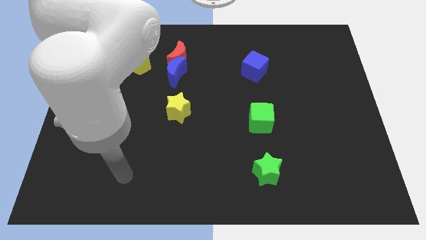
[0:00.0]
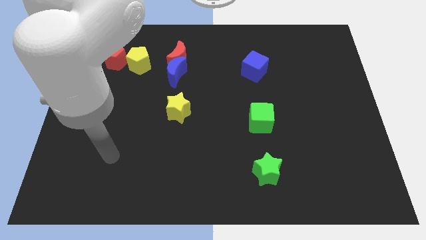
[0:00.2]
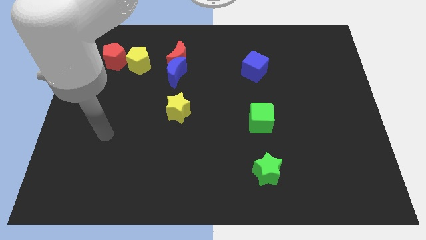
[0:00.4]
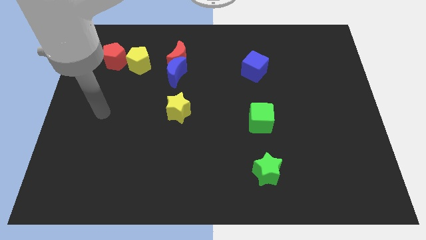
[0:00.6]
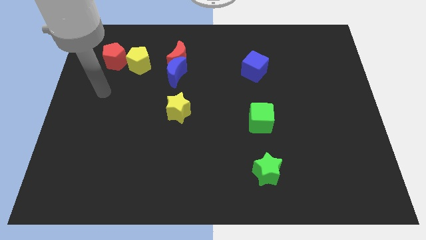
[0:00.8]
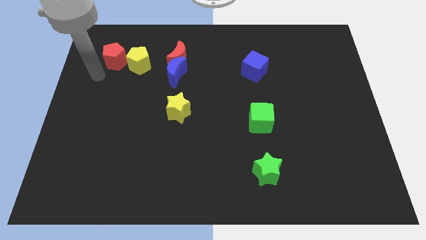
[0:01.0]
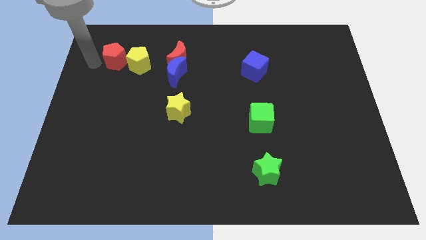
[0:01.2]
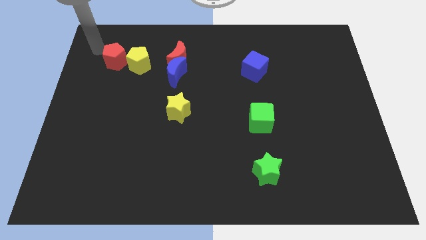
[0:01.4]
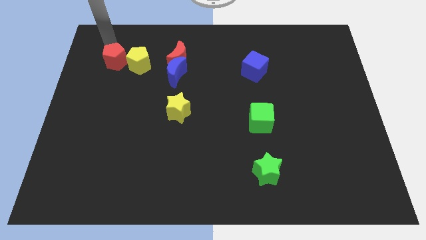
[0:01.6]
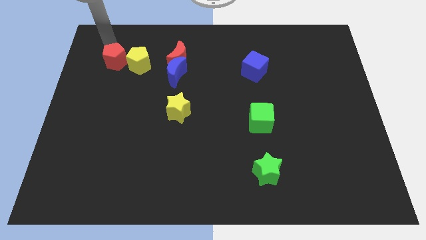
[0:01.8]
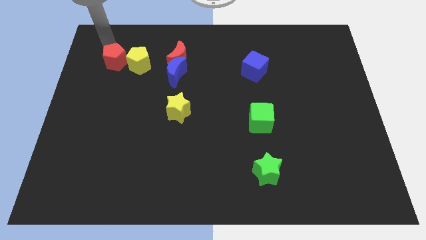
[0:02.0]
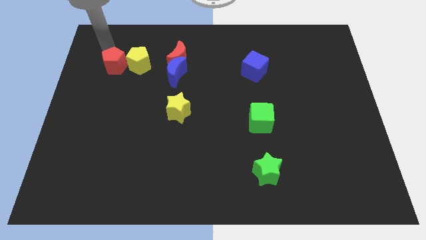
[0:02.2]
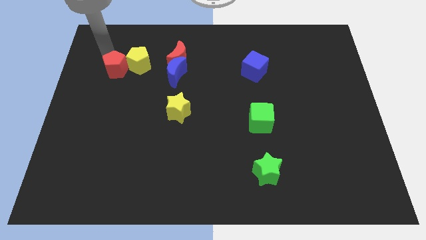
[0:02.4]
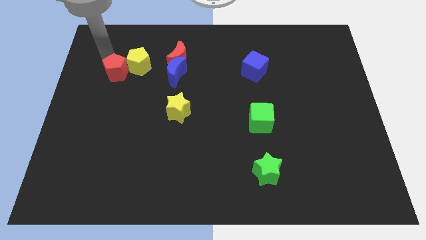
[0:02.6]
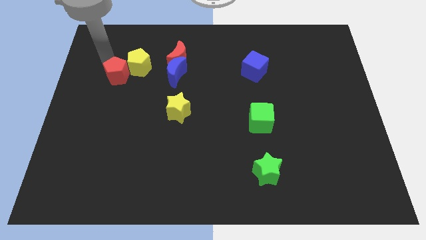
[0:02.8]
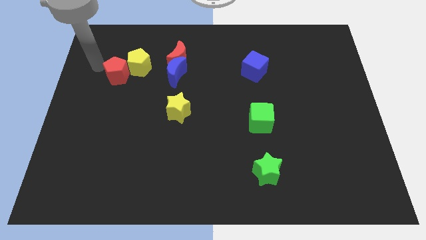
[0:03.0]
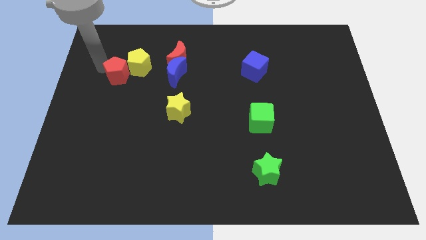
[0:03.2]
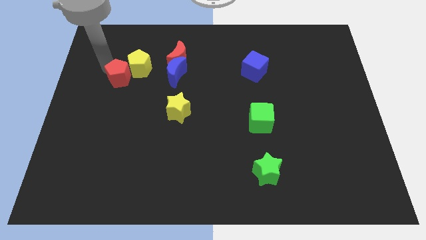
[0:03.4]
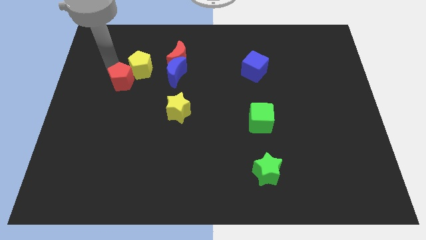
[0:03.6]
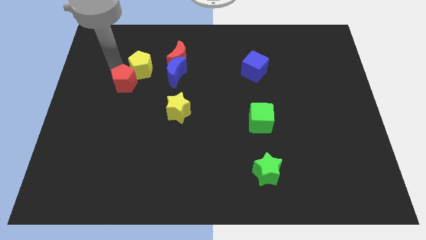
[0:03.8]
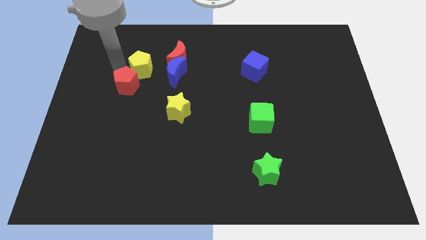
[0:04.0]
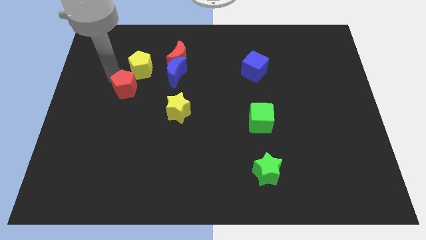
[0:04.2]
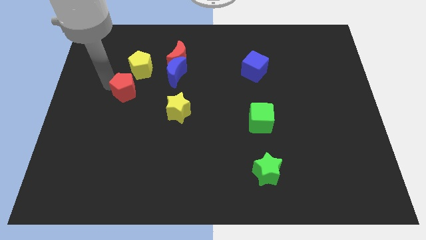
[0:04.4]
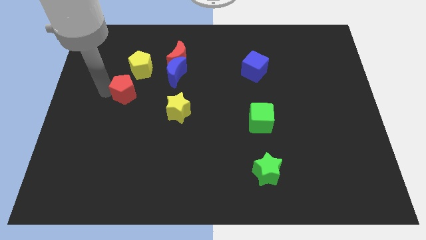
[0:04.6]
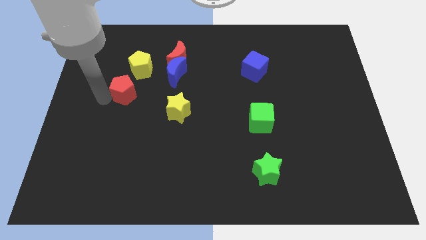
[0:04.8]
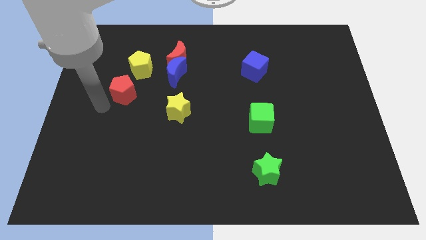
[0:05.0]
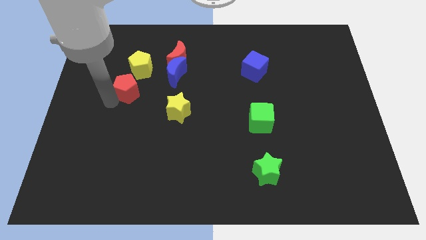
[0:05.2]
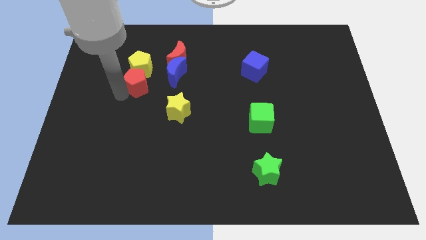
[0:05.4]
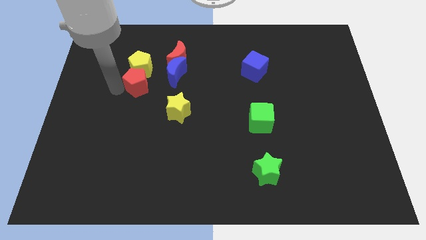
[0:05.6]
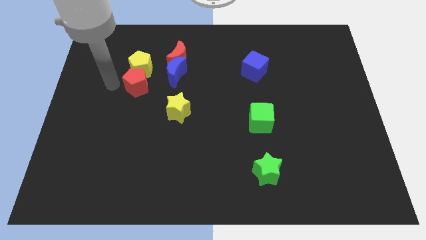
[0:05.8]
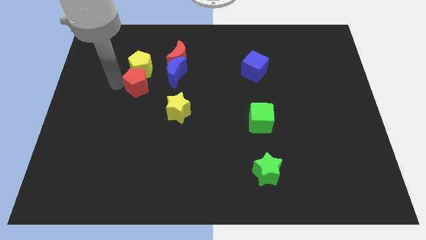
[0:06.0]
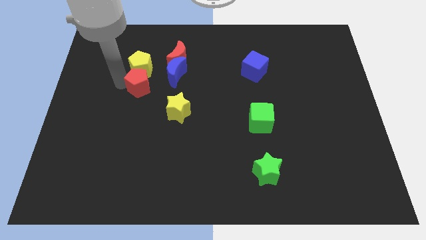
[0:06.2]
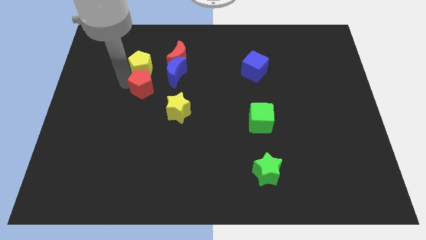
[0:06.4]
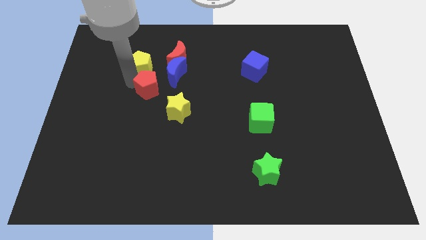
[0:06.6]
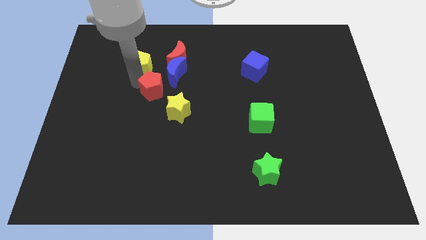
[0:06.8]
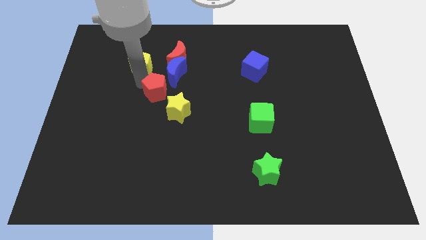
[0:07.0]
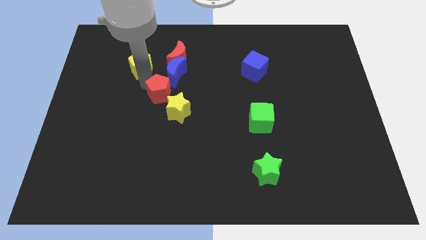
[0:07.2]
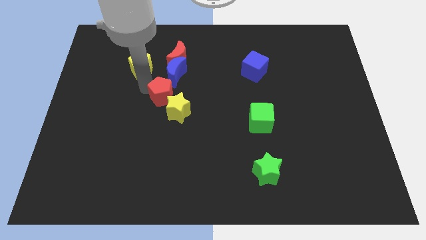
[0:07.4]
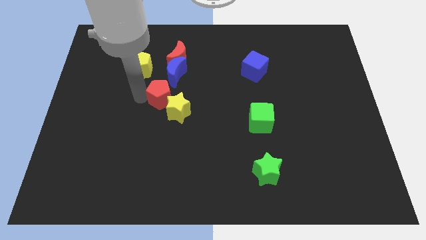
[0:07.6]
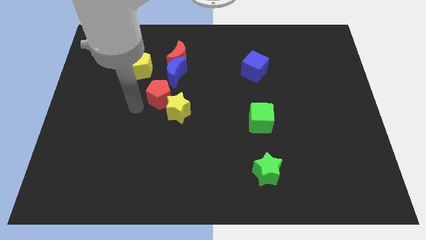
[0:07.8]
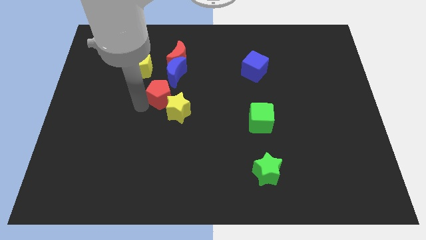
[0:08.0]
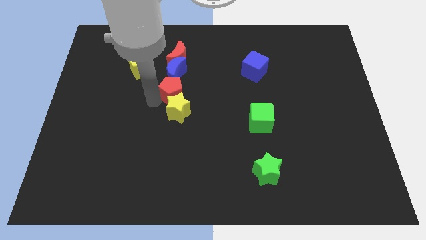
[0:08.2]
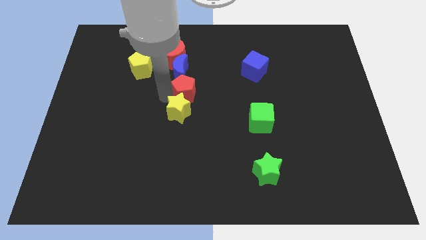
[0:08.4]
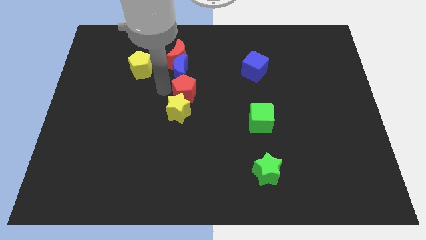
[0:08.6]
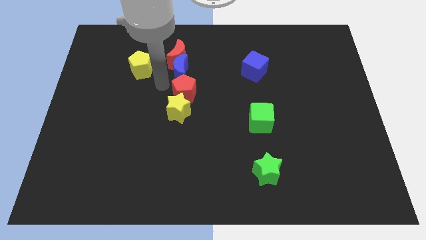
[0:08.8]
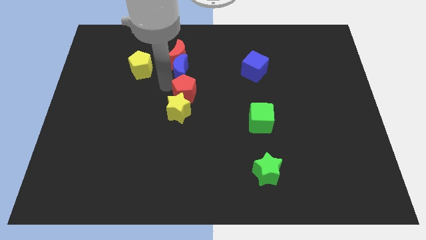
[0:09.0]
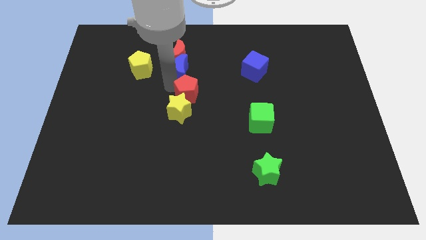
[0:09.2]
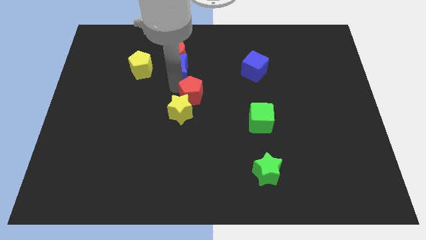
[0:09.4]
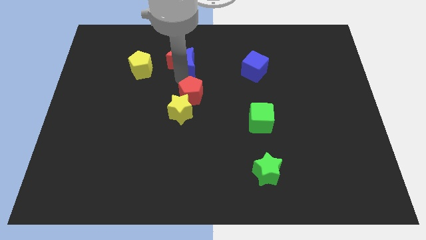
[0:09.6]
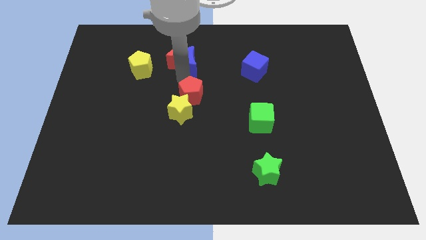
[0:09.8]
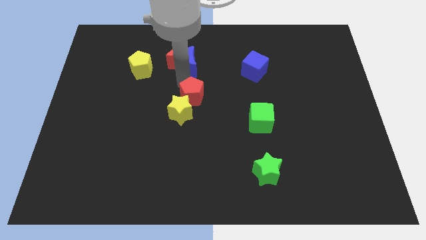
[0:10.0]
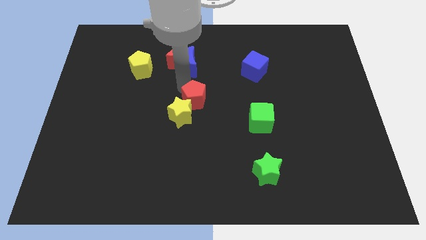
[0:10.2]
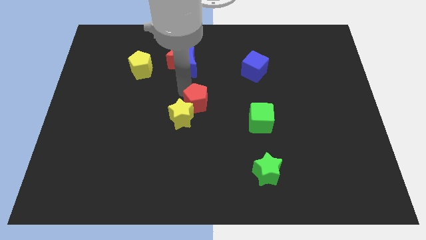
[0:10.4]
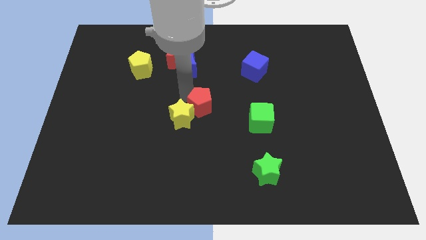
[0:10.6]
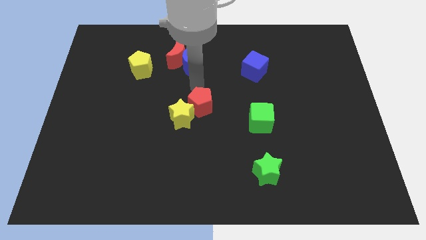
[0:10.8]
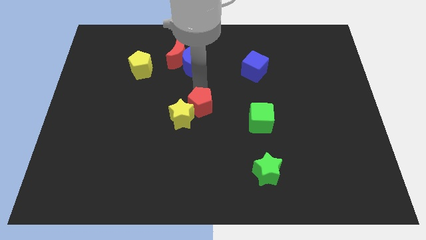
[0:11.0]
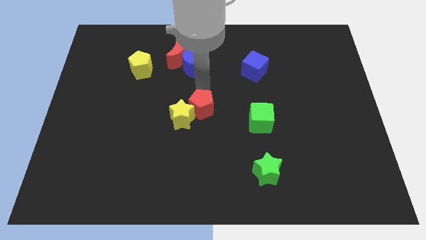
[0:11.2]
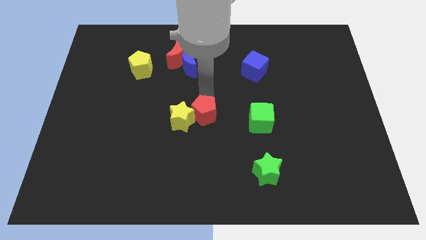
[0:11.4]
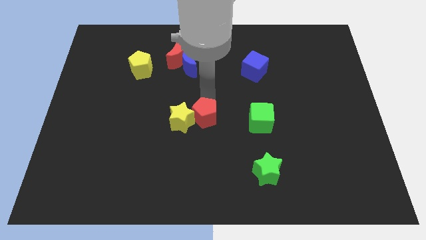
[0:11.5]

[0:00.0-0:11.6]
push the red pentagon to the bottom right of the yellow star

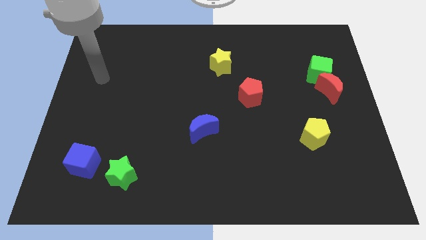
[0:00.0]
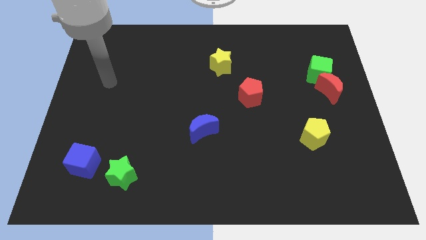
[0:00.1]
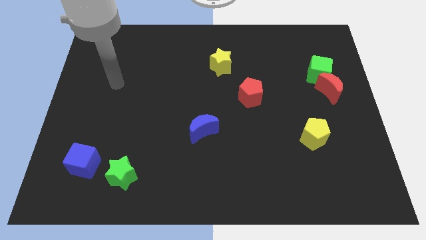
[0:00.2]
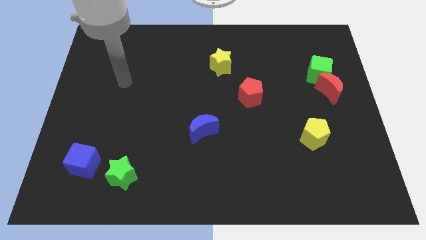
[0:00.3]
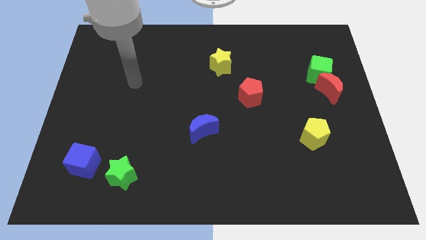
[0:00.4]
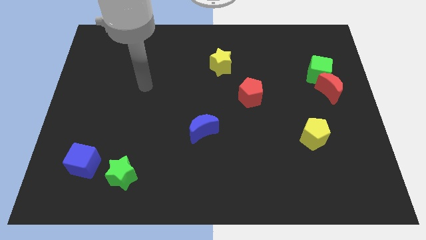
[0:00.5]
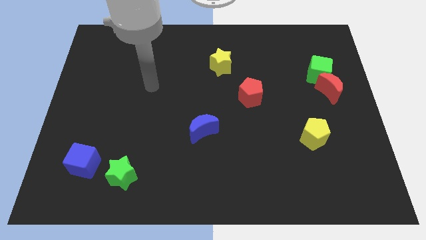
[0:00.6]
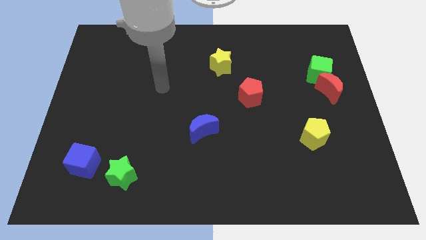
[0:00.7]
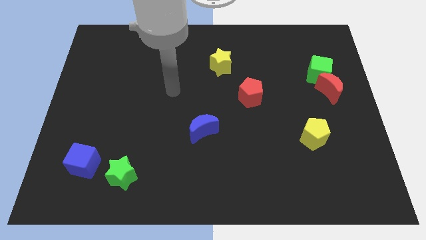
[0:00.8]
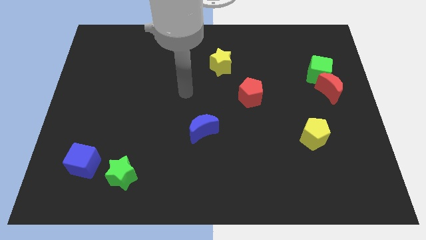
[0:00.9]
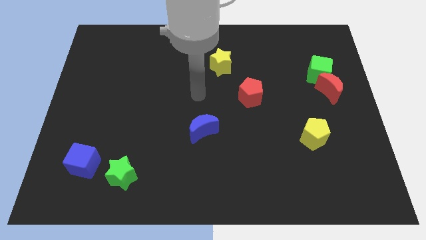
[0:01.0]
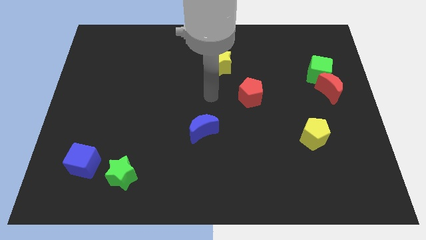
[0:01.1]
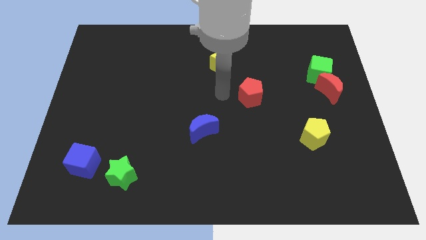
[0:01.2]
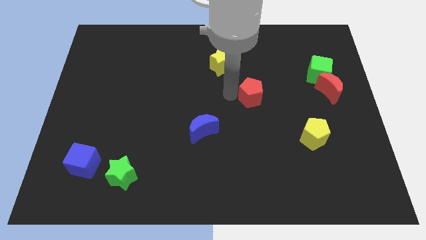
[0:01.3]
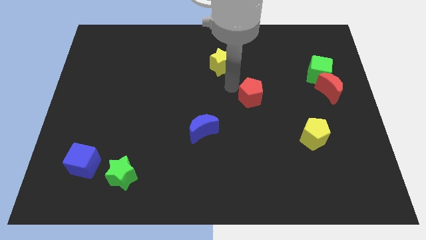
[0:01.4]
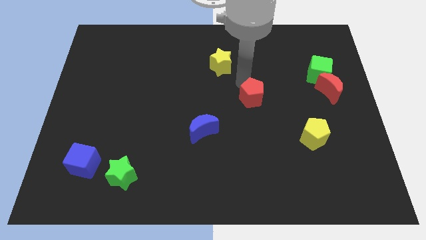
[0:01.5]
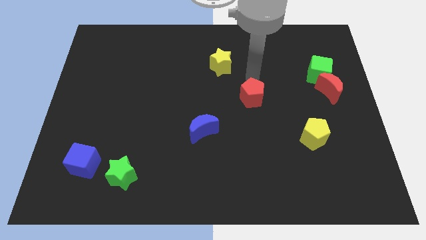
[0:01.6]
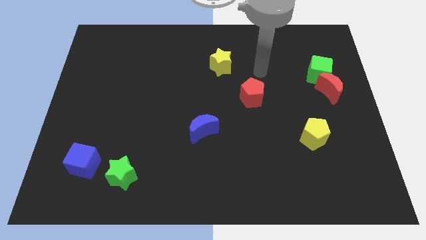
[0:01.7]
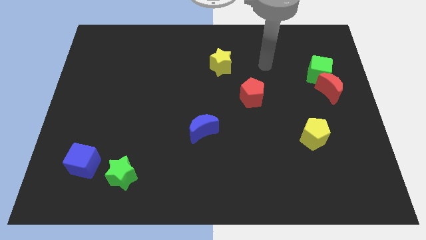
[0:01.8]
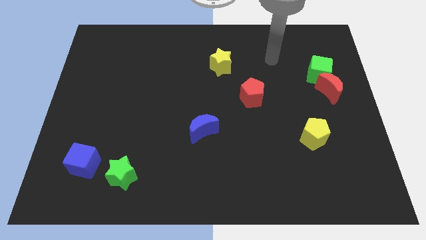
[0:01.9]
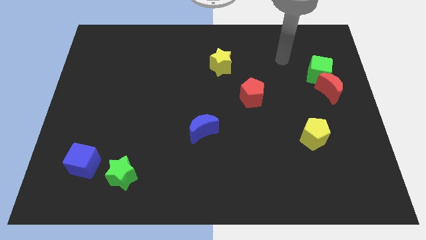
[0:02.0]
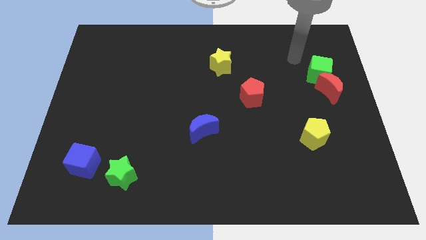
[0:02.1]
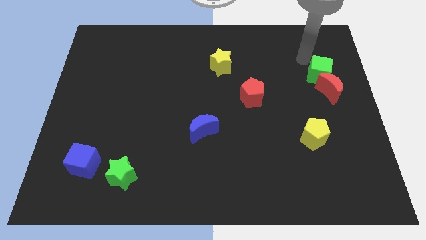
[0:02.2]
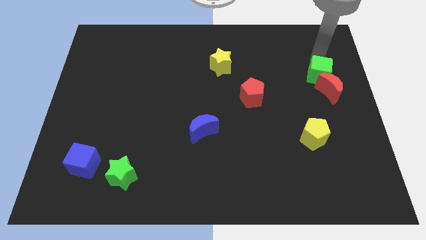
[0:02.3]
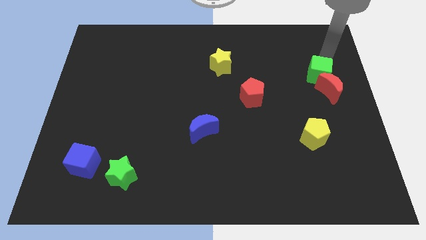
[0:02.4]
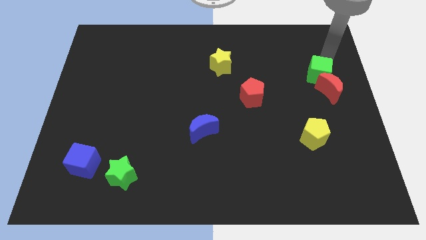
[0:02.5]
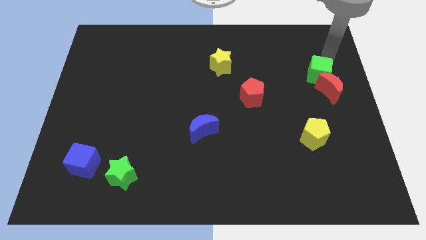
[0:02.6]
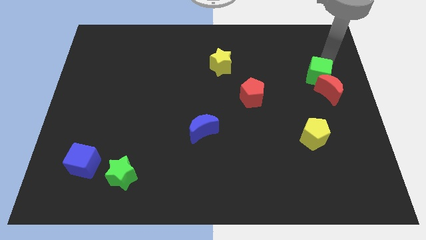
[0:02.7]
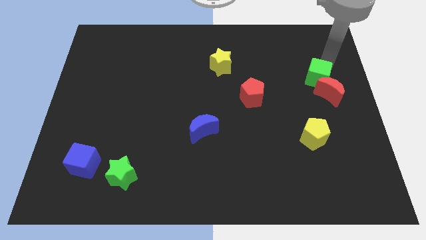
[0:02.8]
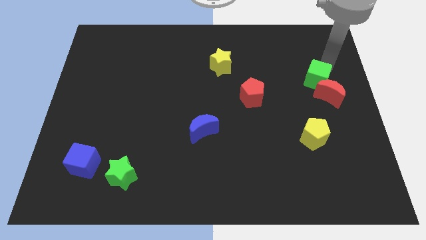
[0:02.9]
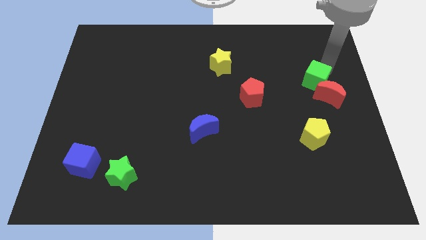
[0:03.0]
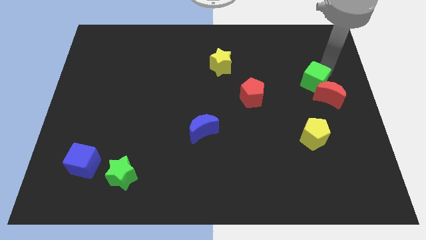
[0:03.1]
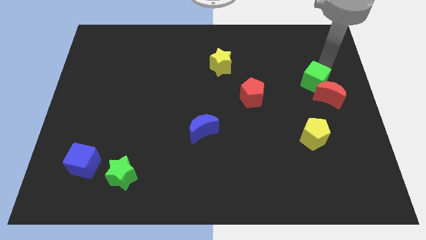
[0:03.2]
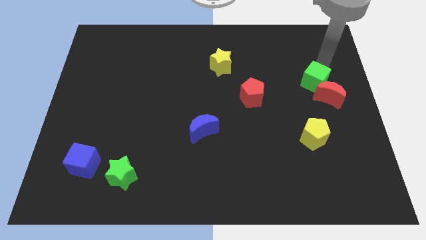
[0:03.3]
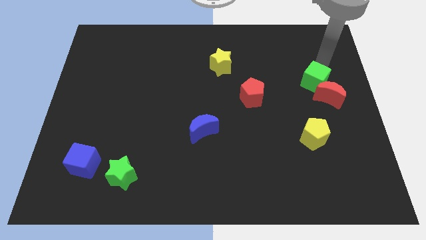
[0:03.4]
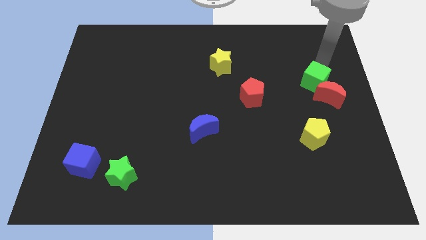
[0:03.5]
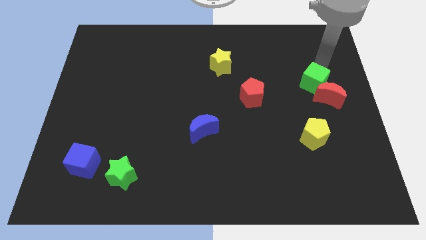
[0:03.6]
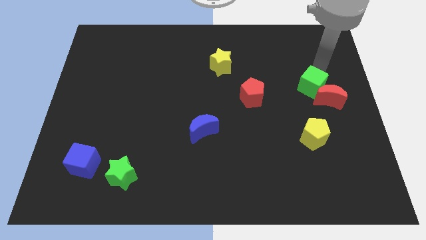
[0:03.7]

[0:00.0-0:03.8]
move the green cube above the yellow pentagon
